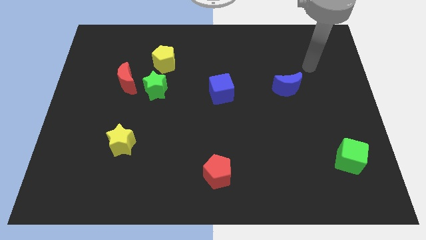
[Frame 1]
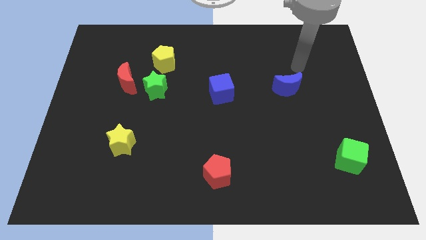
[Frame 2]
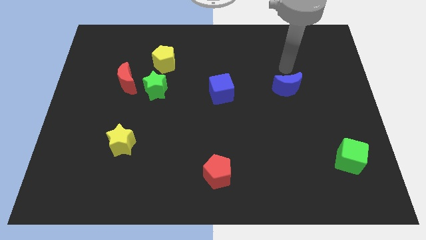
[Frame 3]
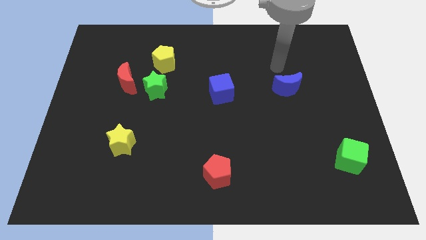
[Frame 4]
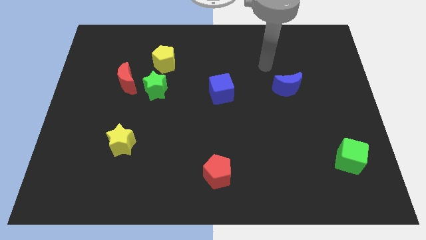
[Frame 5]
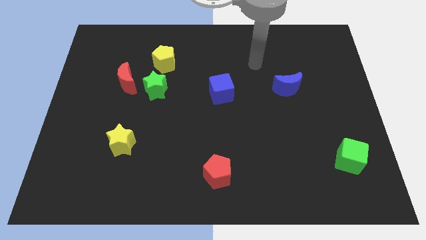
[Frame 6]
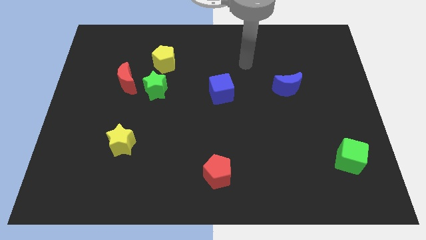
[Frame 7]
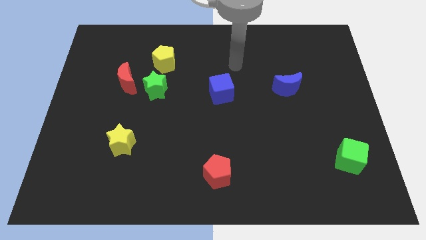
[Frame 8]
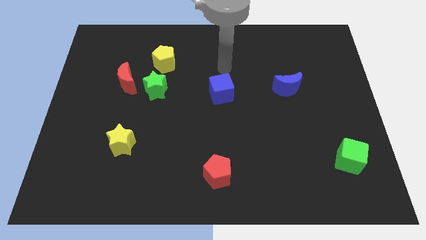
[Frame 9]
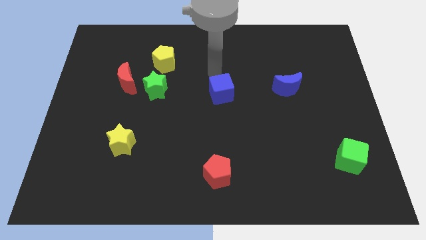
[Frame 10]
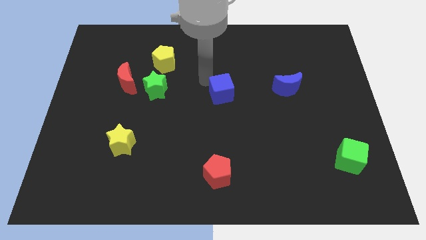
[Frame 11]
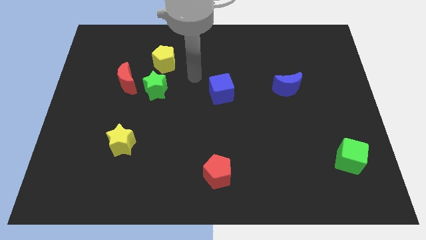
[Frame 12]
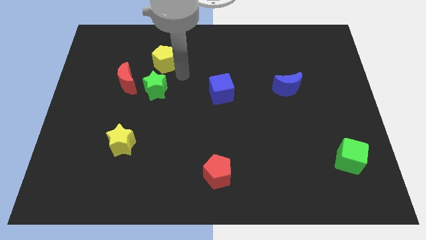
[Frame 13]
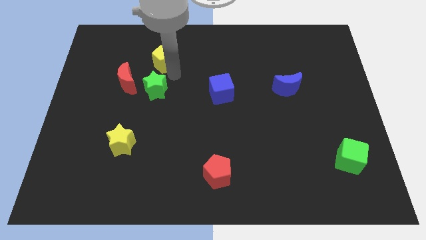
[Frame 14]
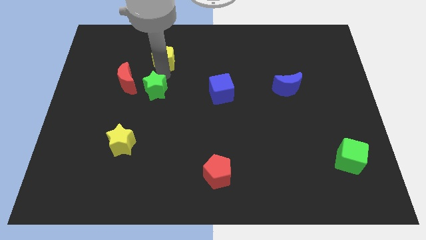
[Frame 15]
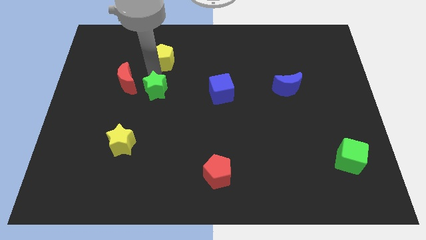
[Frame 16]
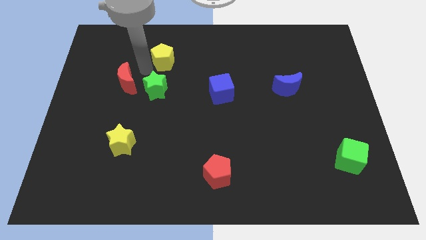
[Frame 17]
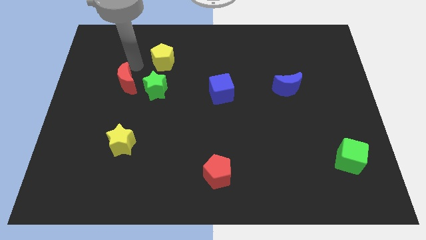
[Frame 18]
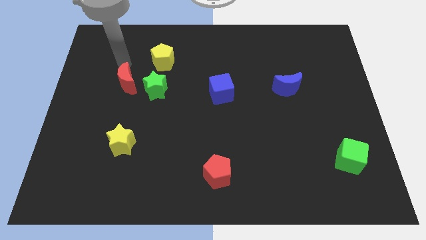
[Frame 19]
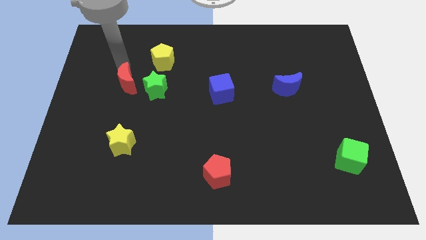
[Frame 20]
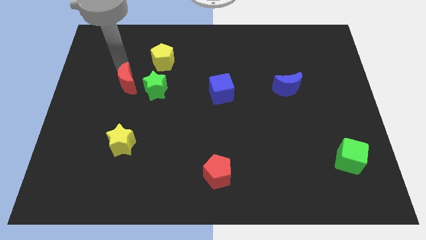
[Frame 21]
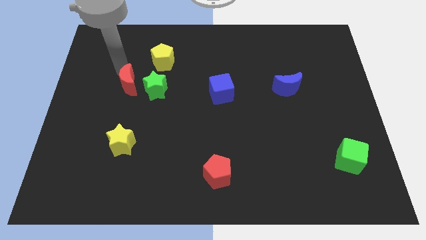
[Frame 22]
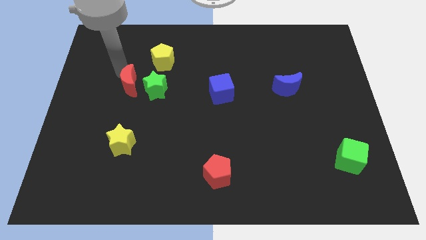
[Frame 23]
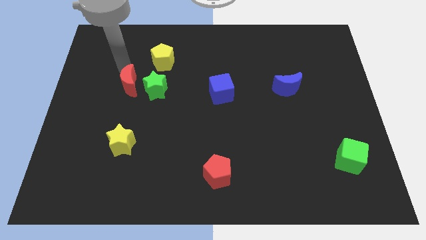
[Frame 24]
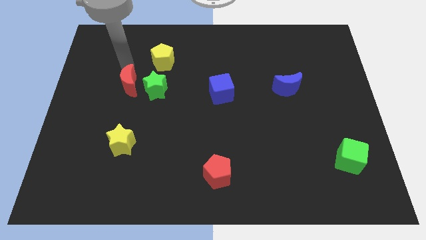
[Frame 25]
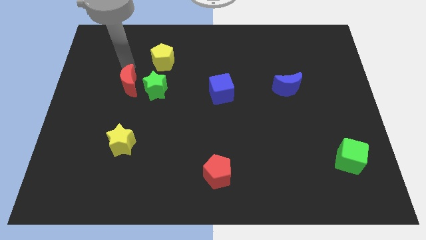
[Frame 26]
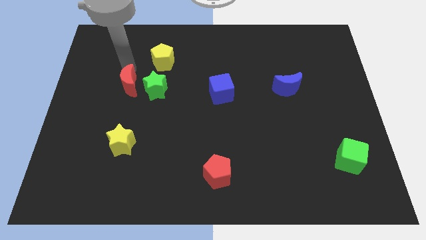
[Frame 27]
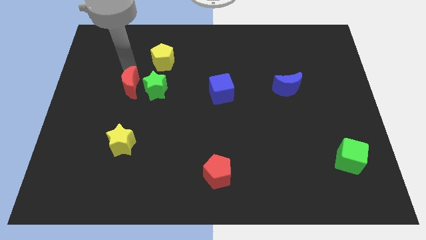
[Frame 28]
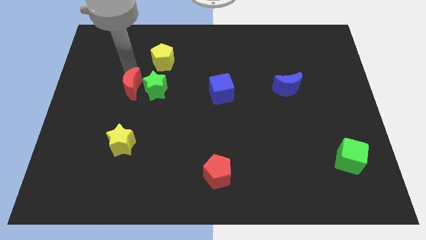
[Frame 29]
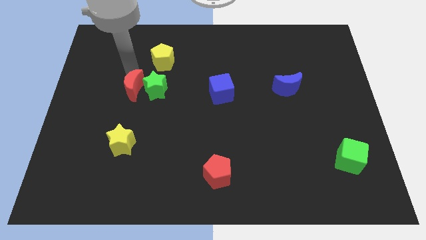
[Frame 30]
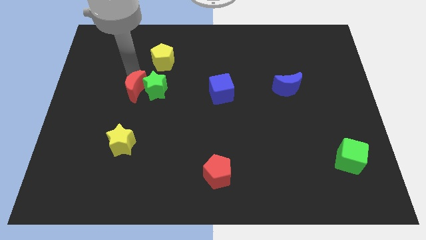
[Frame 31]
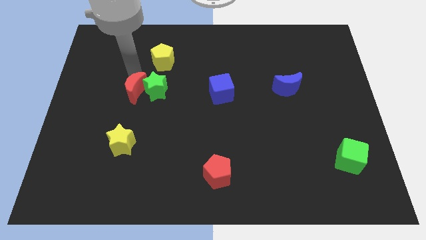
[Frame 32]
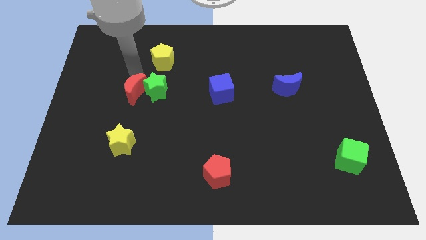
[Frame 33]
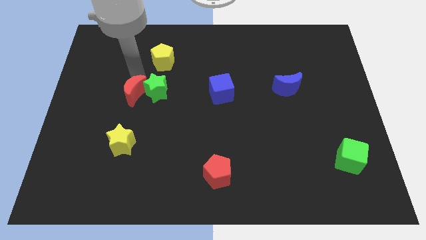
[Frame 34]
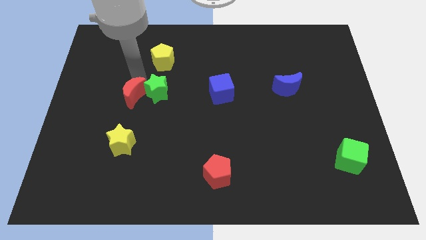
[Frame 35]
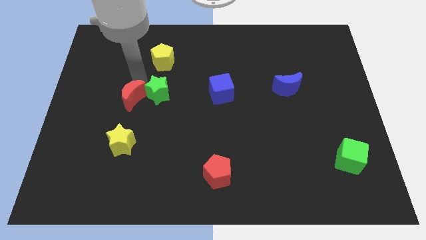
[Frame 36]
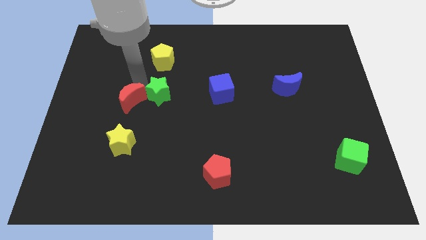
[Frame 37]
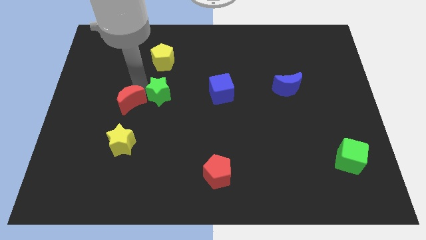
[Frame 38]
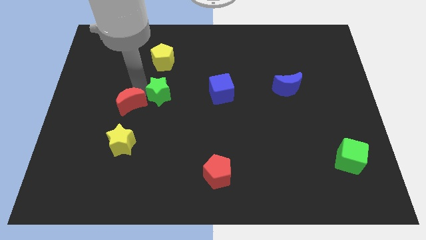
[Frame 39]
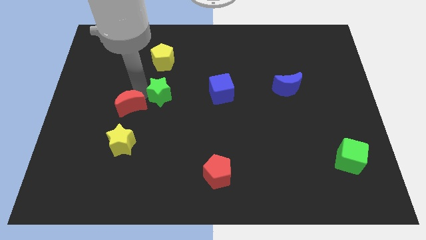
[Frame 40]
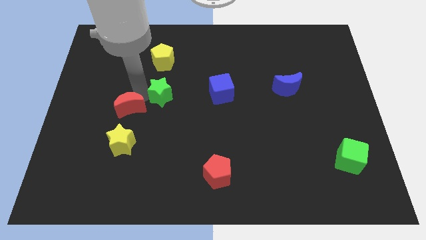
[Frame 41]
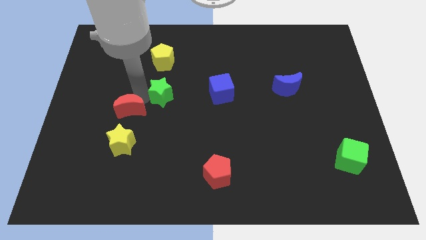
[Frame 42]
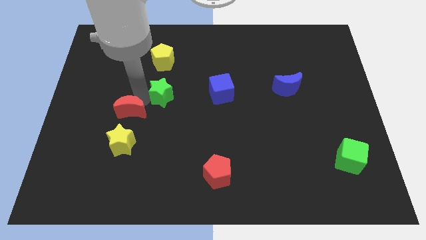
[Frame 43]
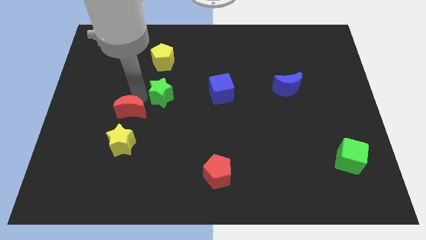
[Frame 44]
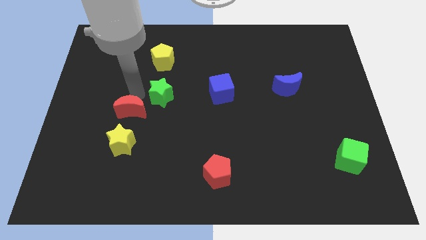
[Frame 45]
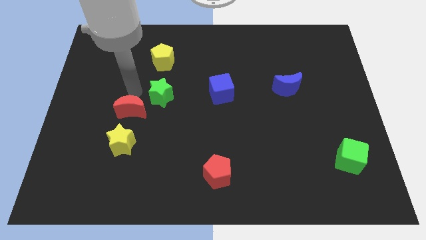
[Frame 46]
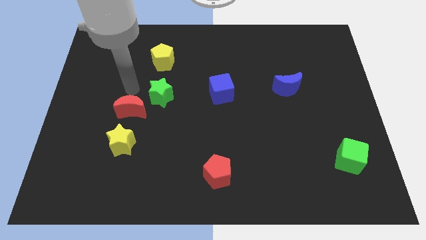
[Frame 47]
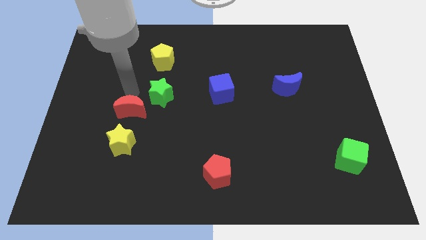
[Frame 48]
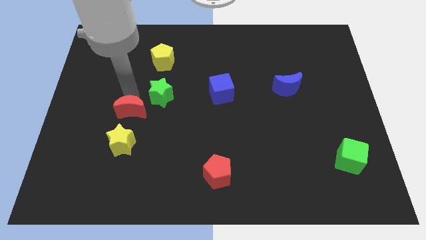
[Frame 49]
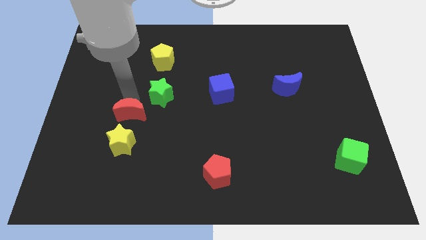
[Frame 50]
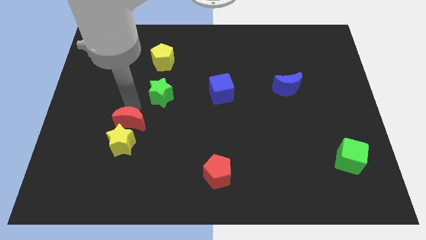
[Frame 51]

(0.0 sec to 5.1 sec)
push the red moon towards the yellow star

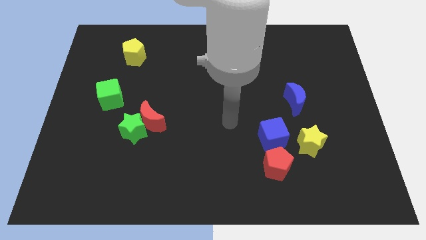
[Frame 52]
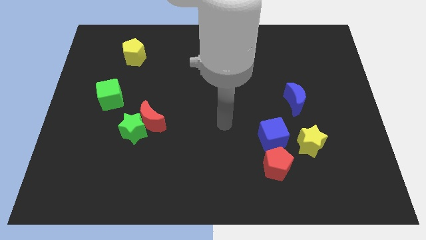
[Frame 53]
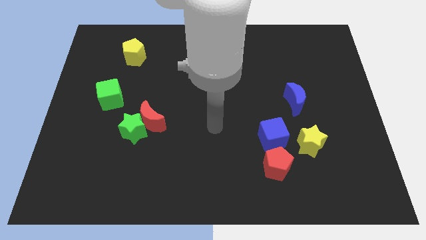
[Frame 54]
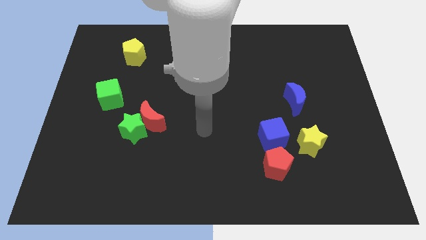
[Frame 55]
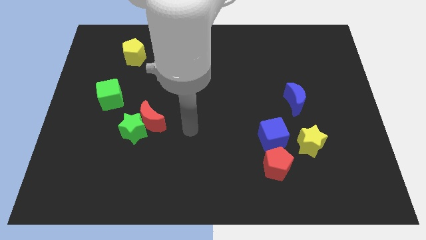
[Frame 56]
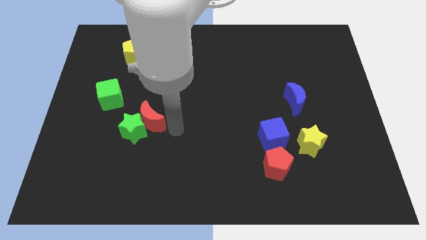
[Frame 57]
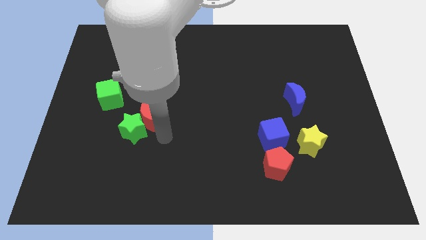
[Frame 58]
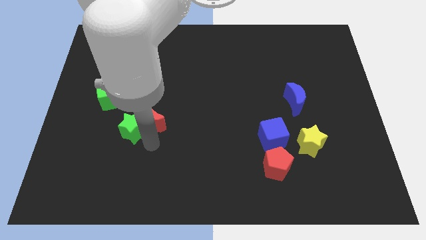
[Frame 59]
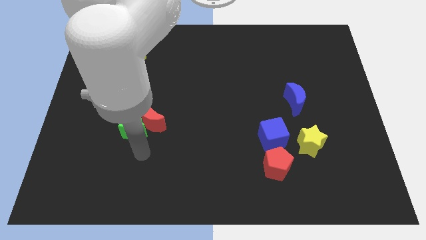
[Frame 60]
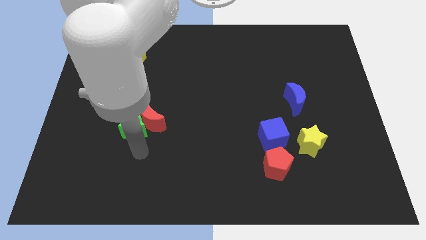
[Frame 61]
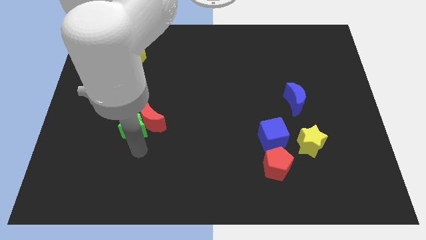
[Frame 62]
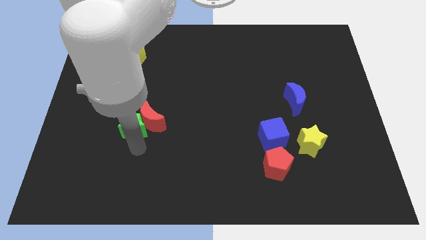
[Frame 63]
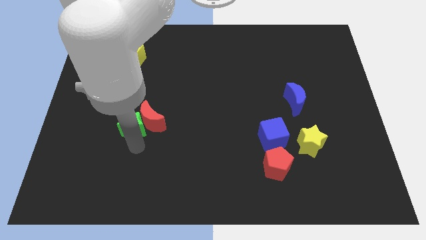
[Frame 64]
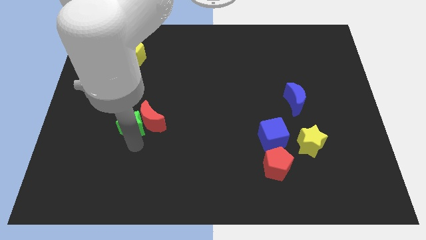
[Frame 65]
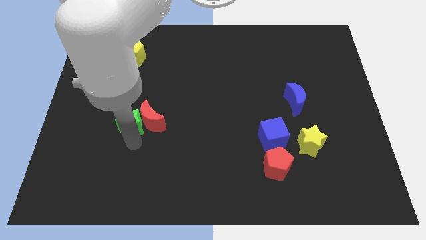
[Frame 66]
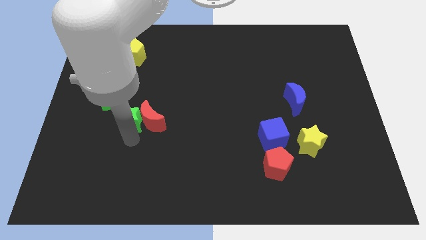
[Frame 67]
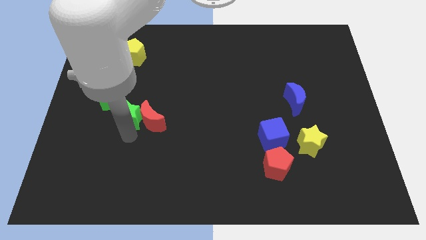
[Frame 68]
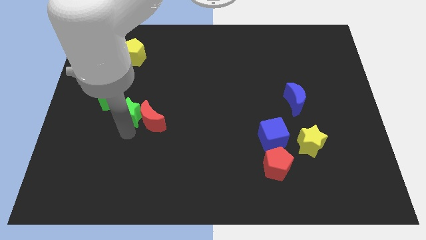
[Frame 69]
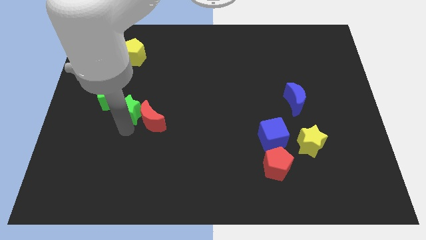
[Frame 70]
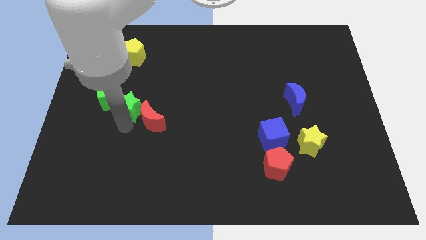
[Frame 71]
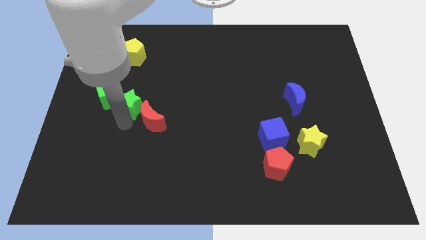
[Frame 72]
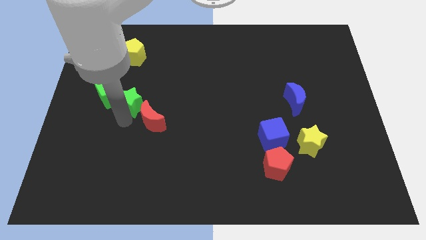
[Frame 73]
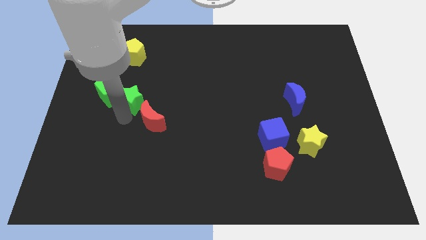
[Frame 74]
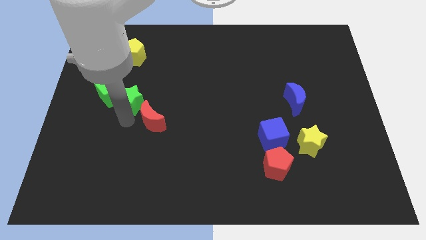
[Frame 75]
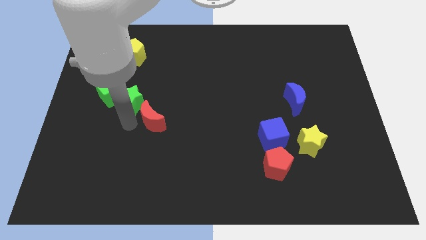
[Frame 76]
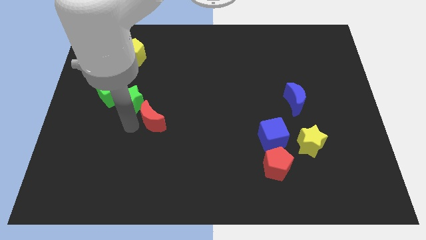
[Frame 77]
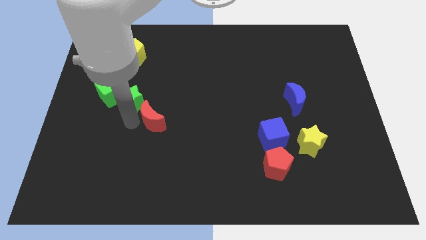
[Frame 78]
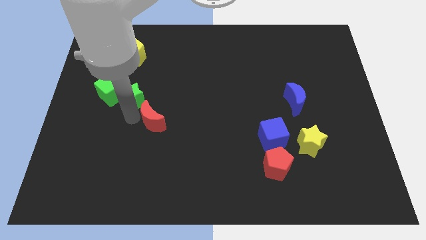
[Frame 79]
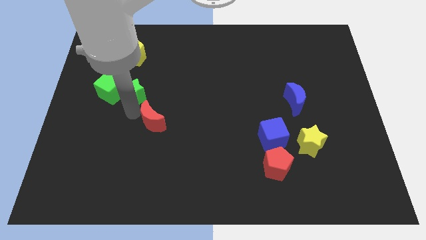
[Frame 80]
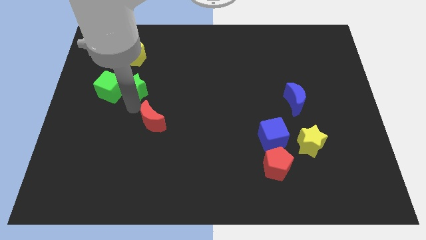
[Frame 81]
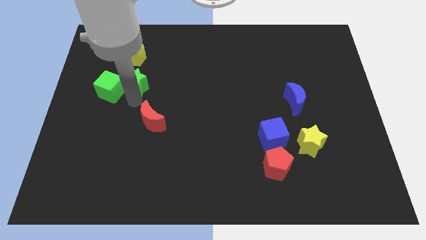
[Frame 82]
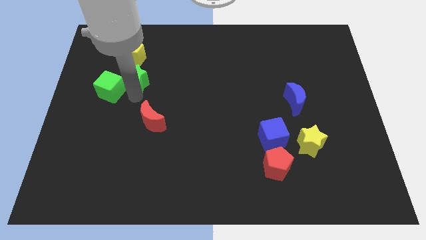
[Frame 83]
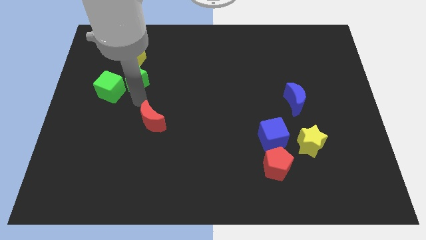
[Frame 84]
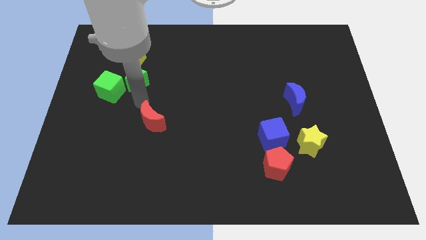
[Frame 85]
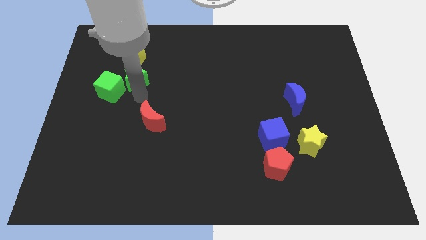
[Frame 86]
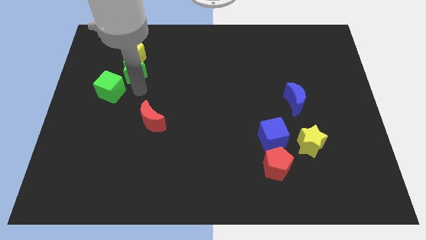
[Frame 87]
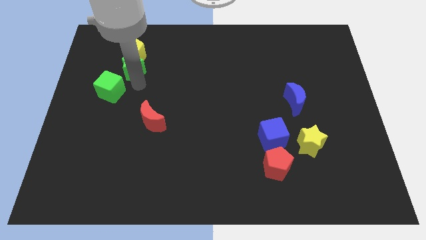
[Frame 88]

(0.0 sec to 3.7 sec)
put the green star next to the yellow pentagon
